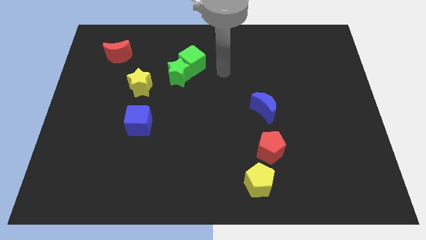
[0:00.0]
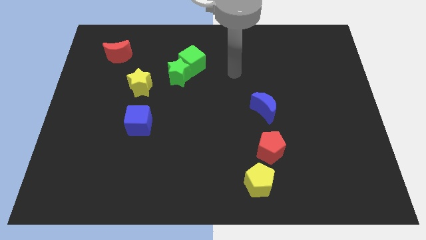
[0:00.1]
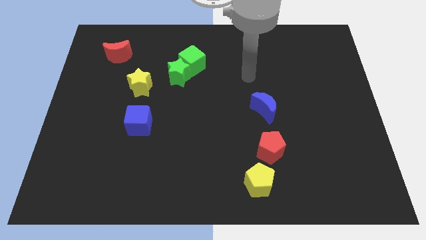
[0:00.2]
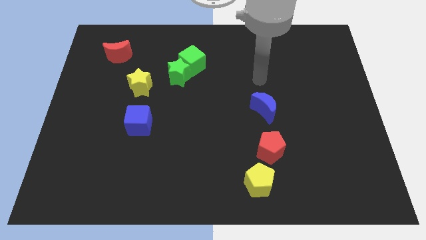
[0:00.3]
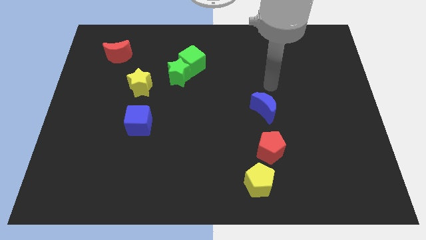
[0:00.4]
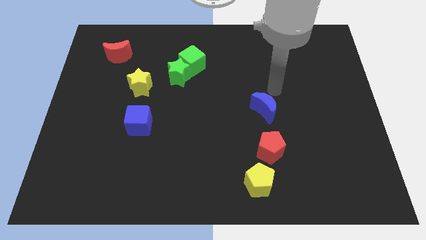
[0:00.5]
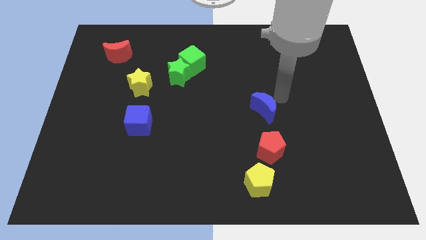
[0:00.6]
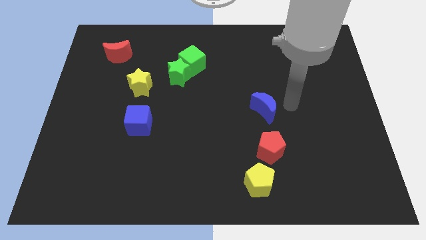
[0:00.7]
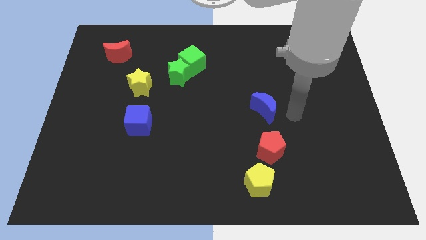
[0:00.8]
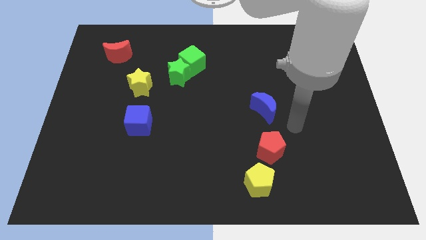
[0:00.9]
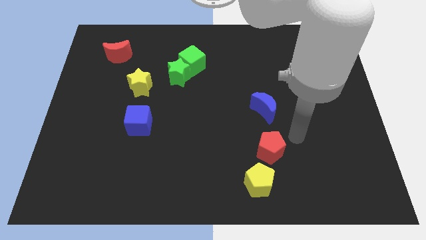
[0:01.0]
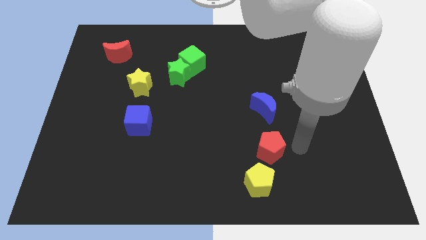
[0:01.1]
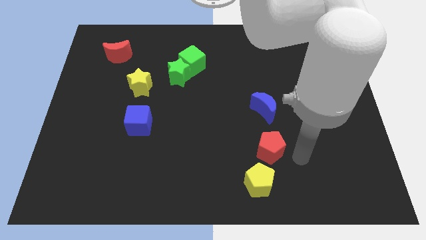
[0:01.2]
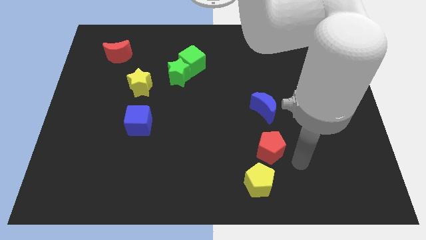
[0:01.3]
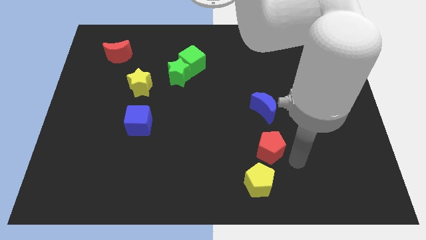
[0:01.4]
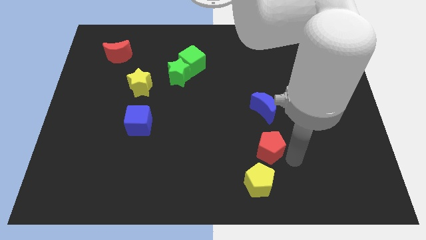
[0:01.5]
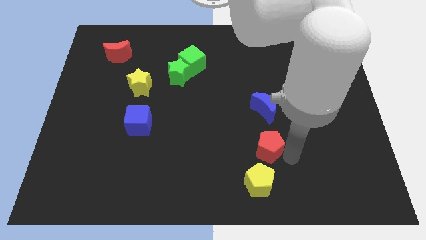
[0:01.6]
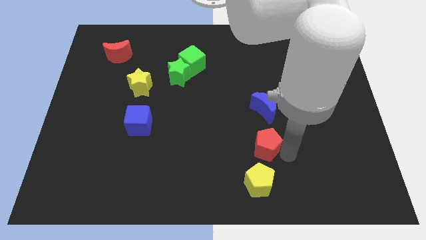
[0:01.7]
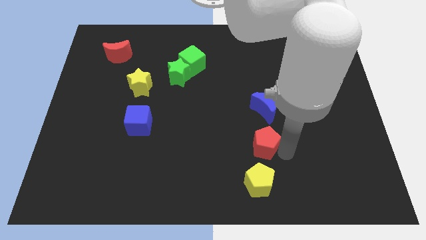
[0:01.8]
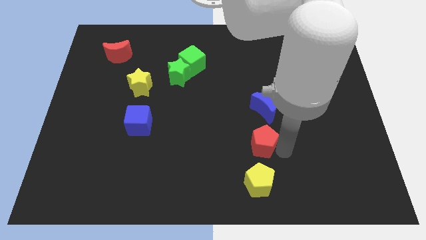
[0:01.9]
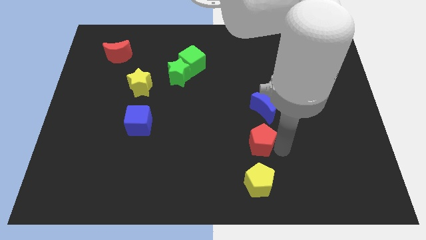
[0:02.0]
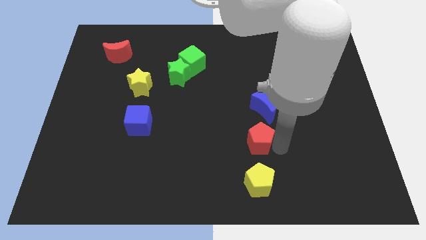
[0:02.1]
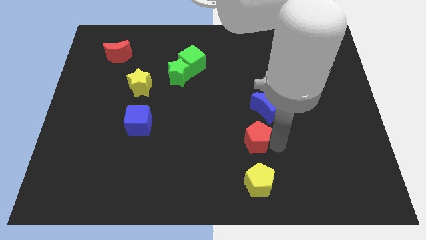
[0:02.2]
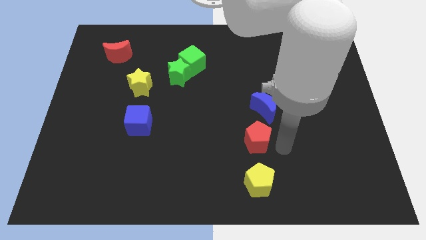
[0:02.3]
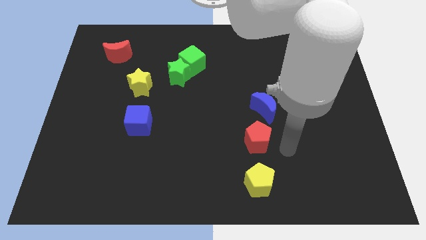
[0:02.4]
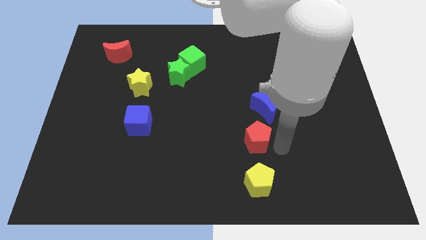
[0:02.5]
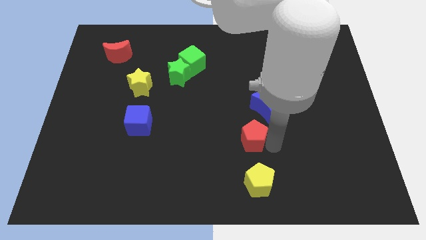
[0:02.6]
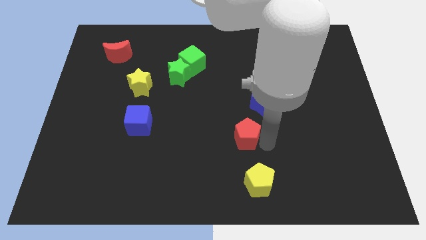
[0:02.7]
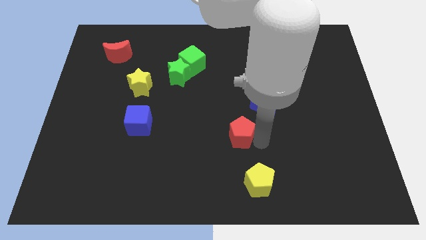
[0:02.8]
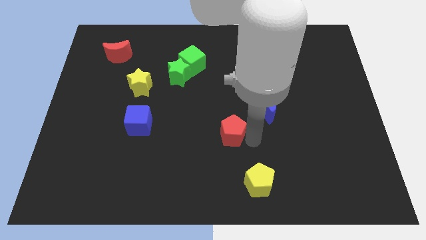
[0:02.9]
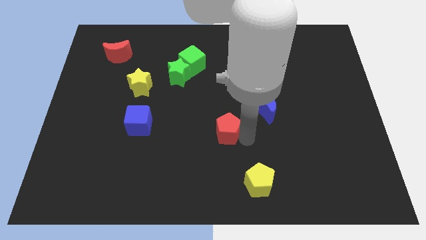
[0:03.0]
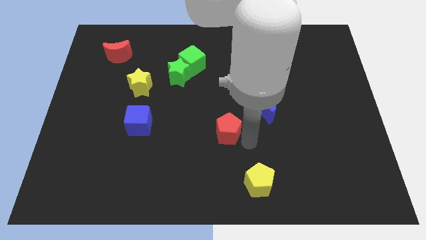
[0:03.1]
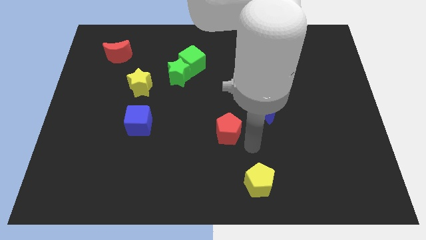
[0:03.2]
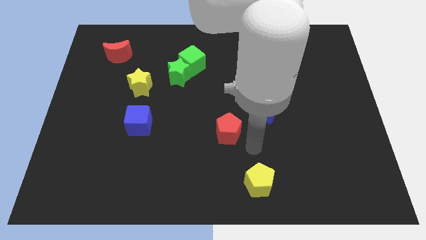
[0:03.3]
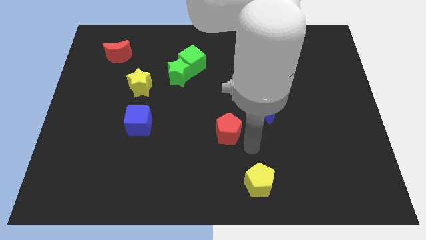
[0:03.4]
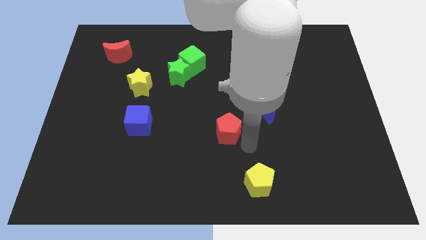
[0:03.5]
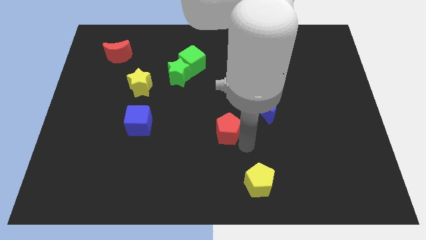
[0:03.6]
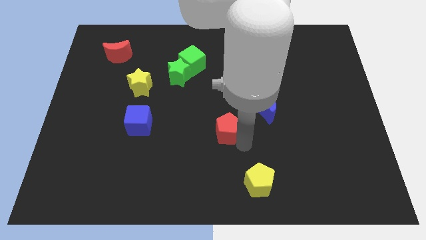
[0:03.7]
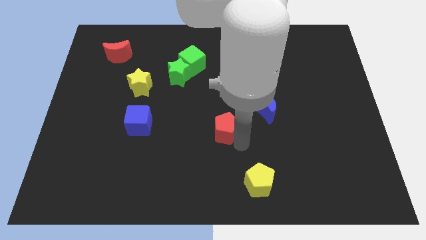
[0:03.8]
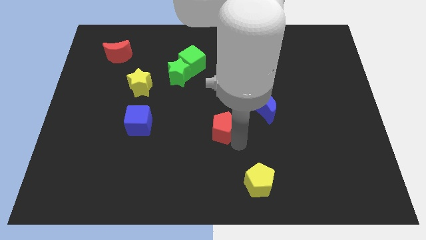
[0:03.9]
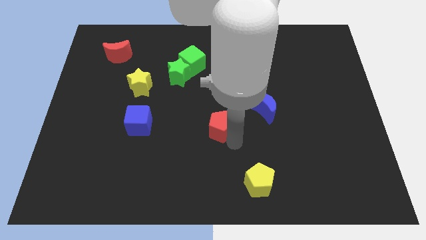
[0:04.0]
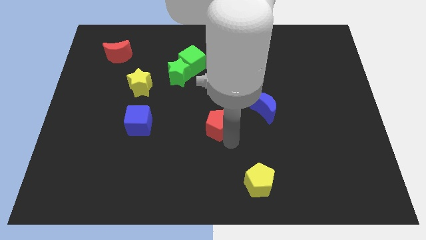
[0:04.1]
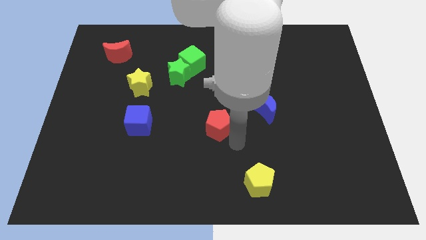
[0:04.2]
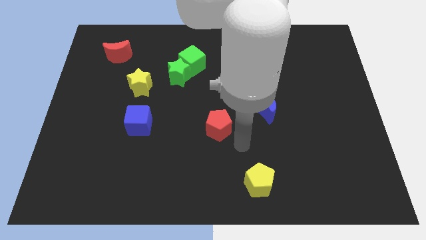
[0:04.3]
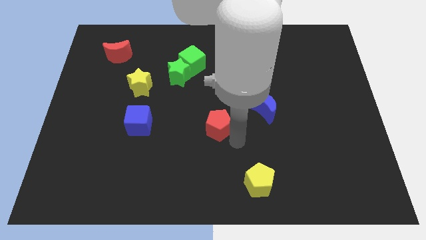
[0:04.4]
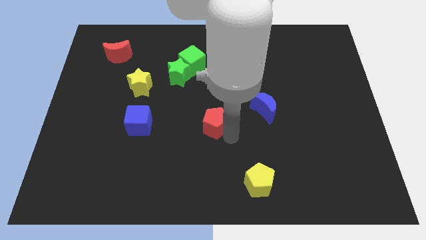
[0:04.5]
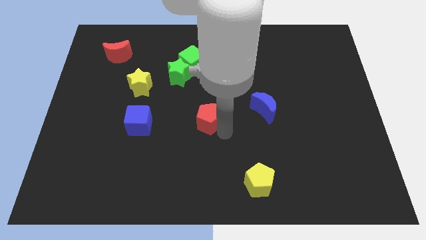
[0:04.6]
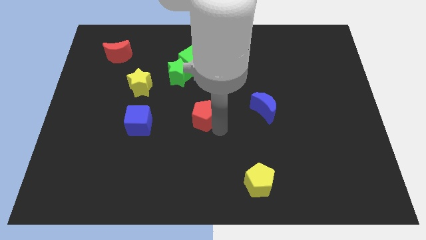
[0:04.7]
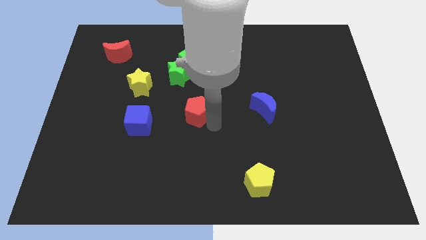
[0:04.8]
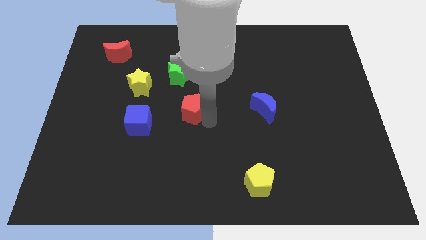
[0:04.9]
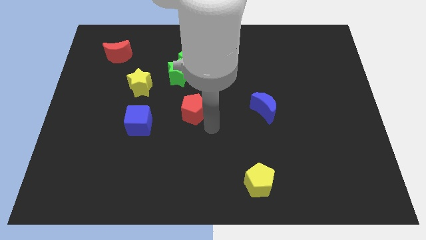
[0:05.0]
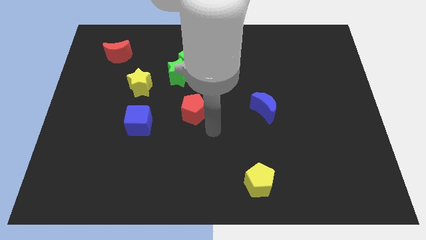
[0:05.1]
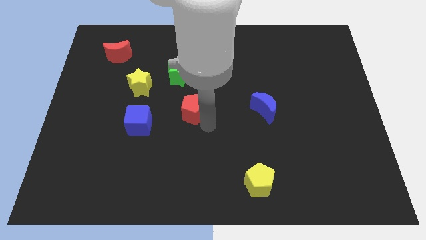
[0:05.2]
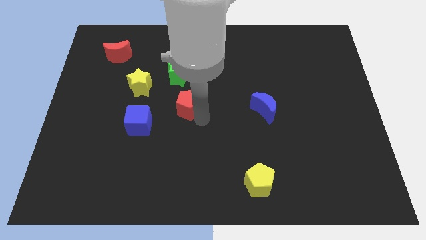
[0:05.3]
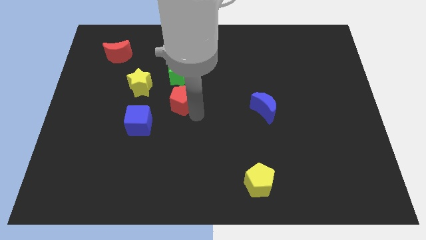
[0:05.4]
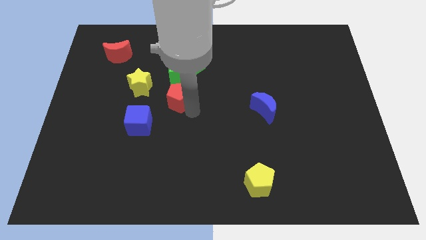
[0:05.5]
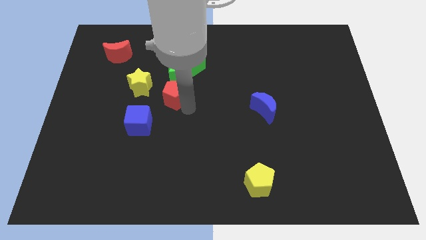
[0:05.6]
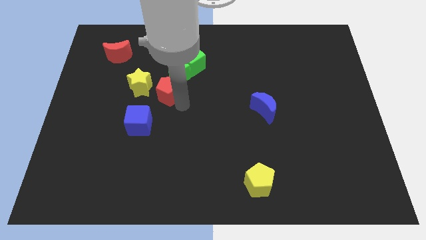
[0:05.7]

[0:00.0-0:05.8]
put the red pentagon diagonally down and to the left of the green cube

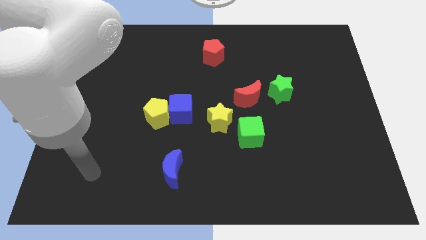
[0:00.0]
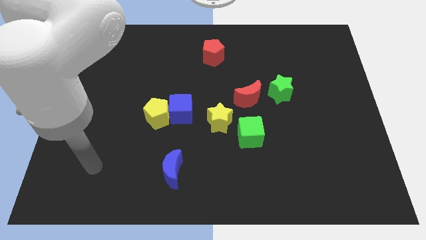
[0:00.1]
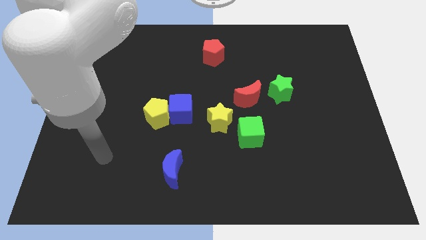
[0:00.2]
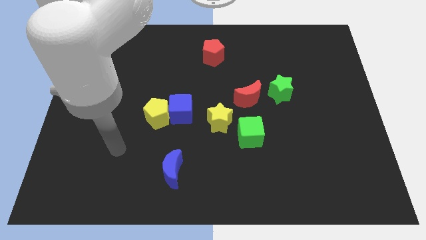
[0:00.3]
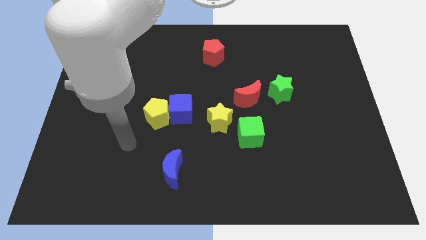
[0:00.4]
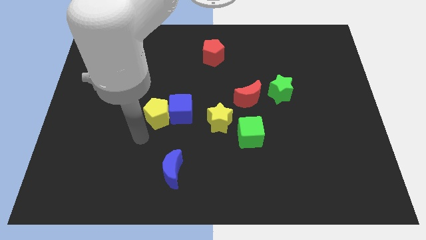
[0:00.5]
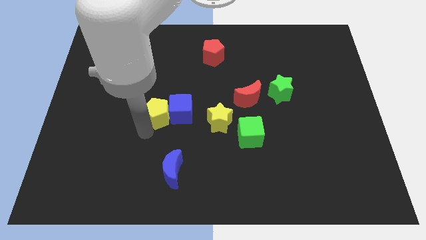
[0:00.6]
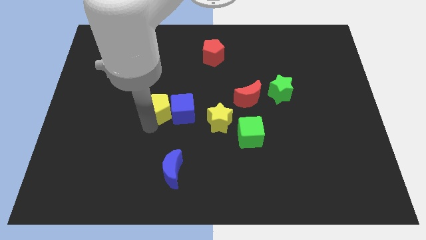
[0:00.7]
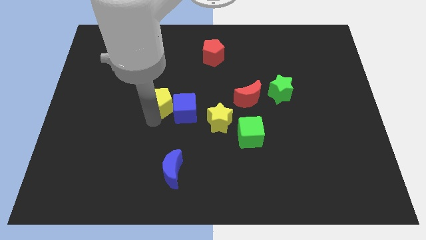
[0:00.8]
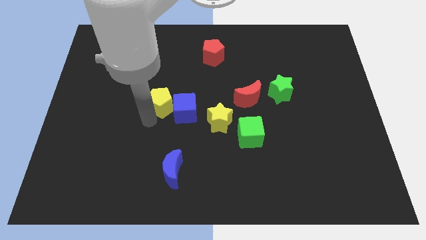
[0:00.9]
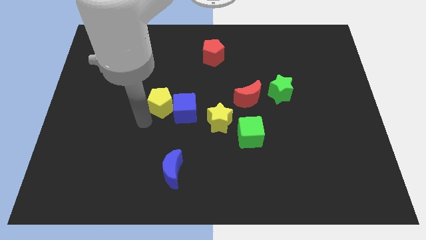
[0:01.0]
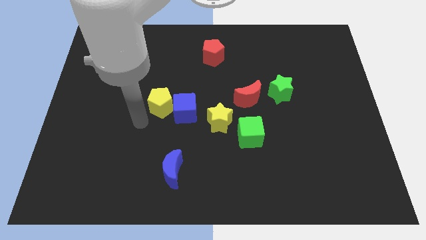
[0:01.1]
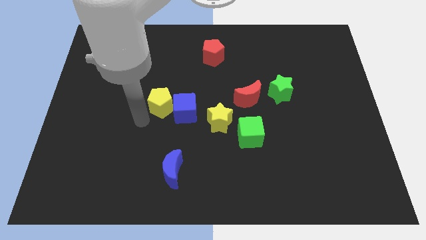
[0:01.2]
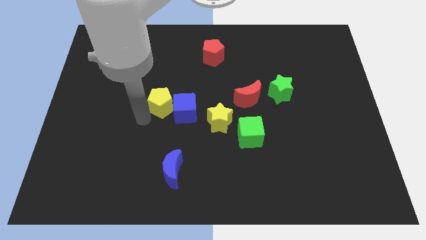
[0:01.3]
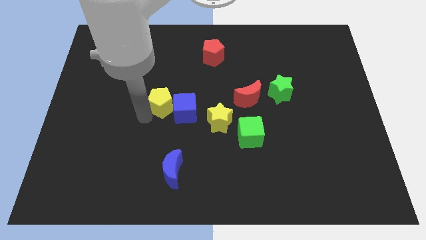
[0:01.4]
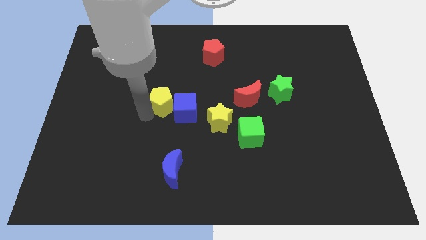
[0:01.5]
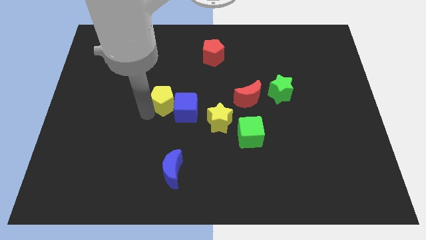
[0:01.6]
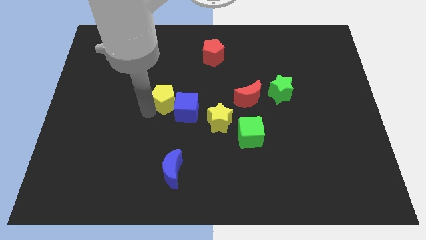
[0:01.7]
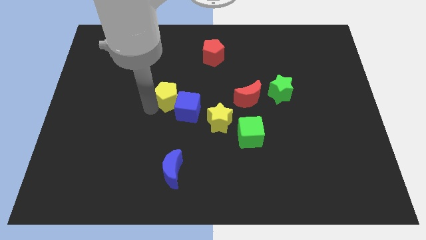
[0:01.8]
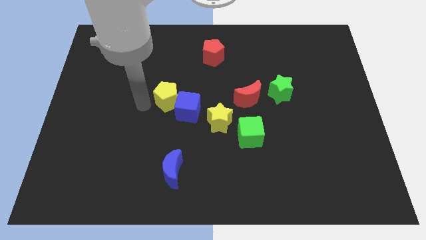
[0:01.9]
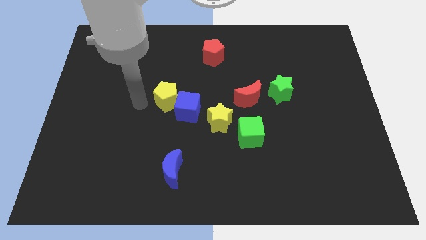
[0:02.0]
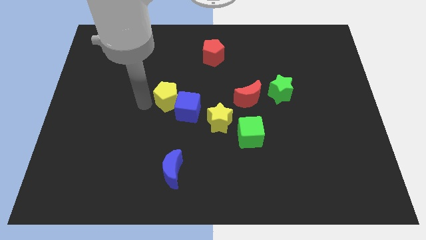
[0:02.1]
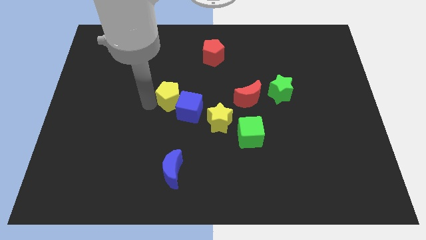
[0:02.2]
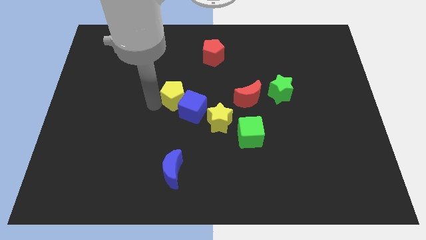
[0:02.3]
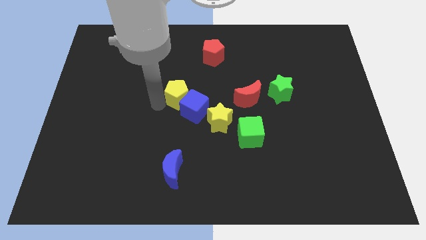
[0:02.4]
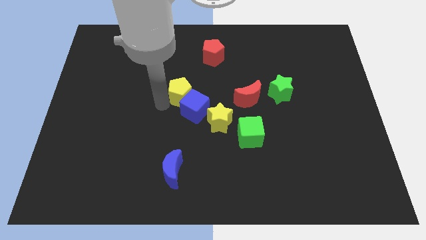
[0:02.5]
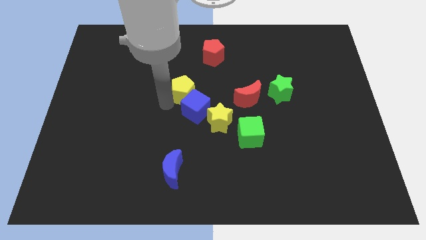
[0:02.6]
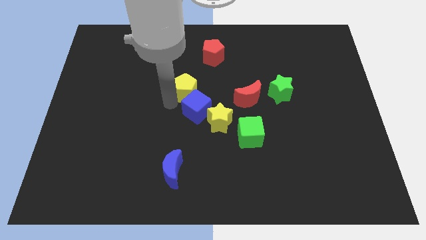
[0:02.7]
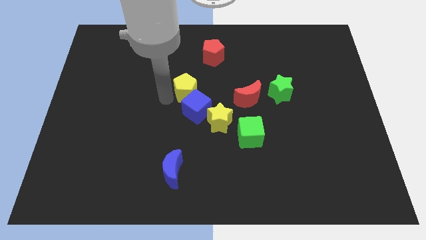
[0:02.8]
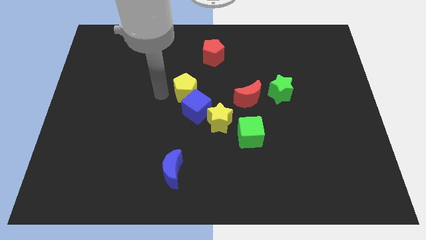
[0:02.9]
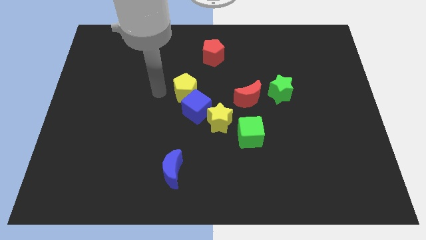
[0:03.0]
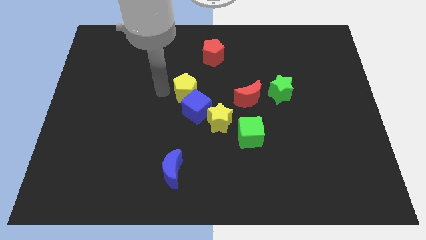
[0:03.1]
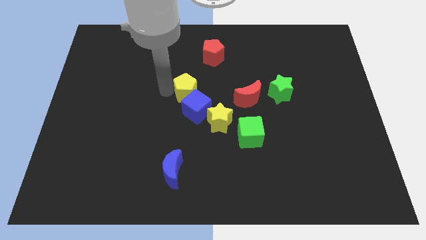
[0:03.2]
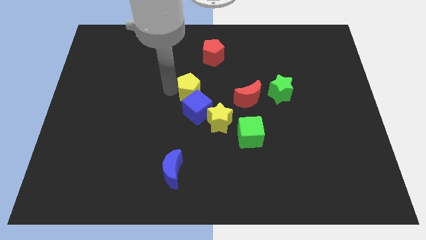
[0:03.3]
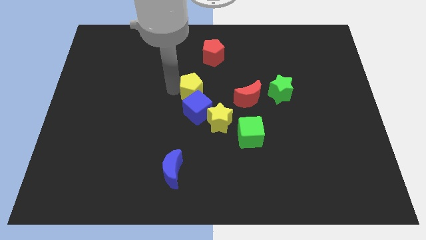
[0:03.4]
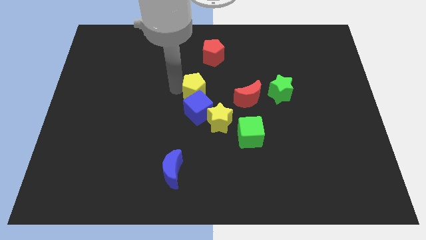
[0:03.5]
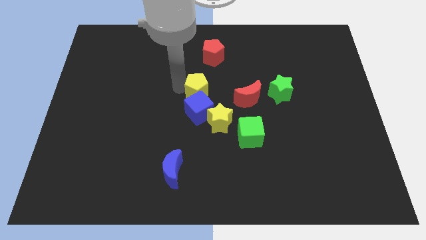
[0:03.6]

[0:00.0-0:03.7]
put the yellow pentagon to the top right side of the blue cube
